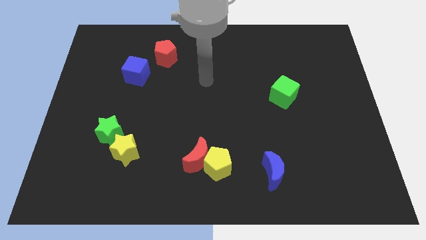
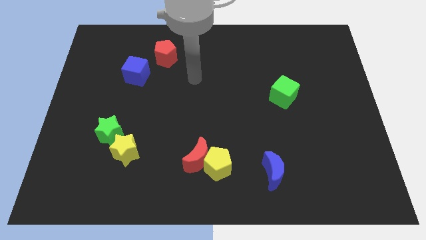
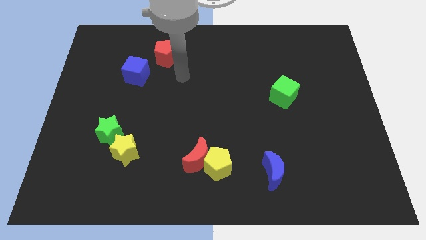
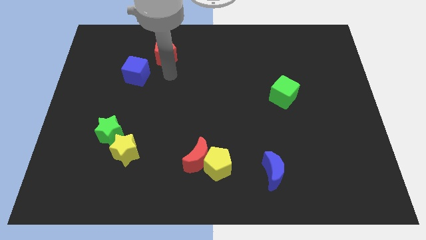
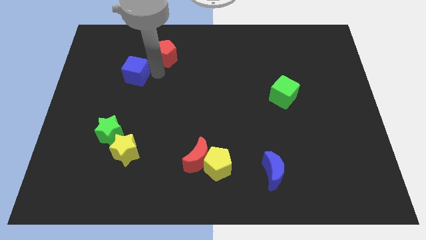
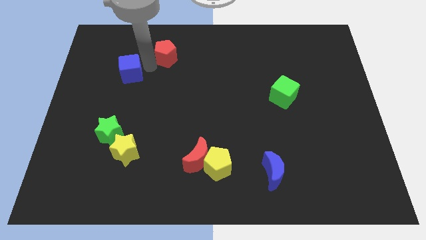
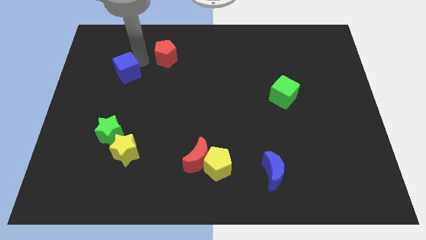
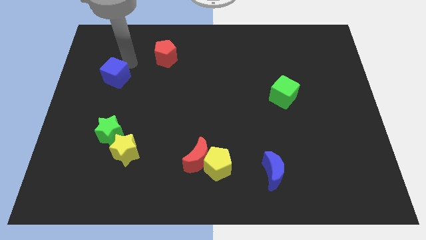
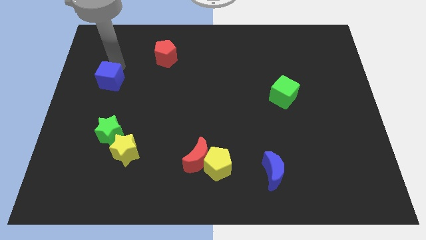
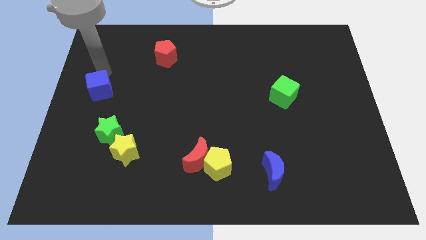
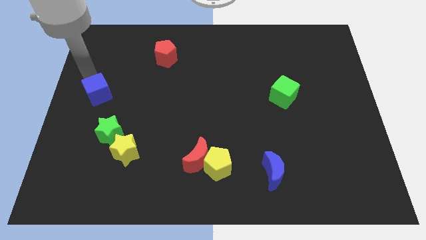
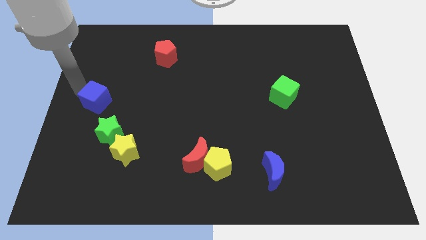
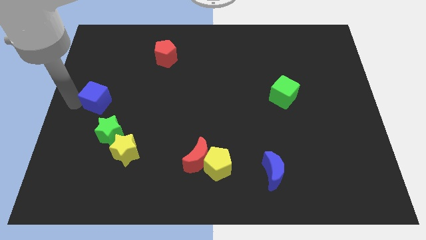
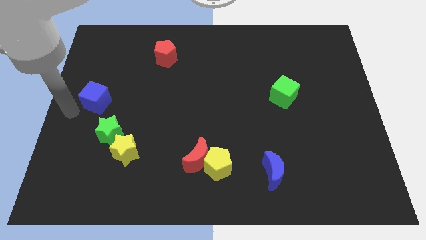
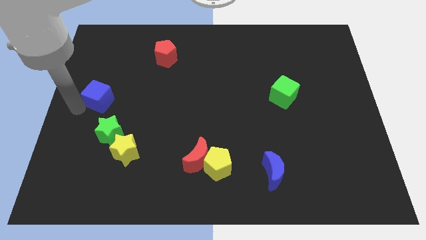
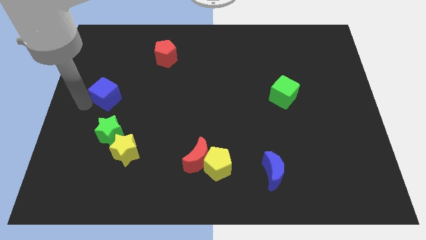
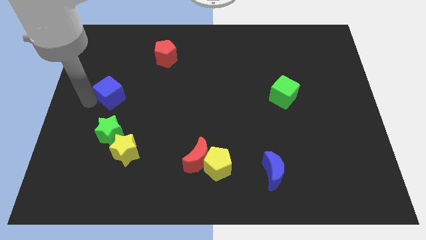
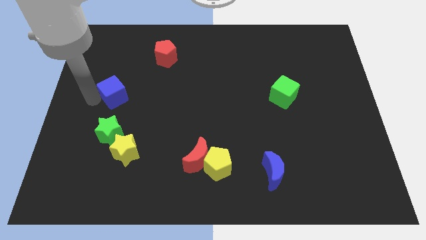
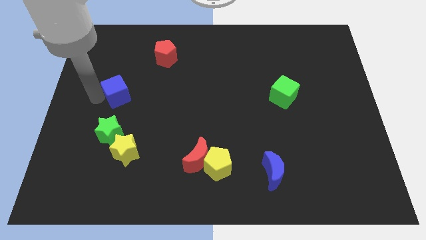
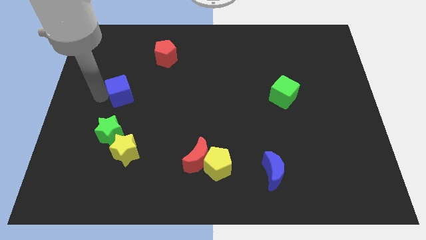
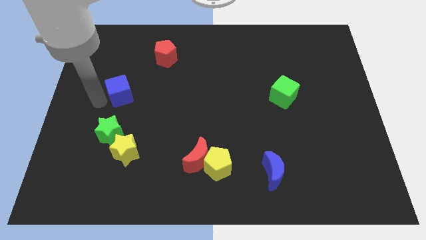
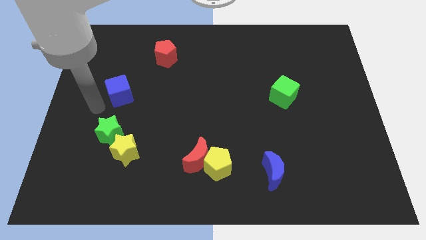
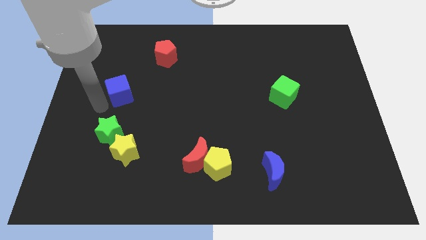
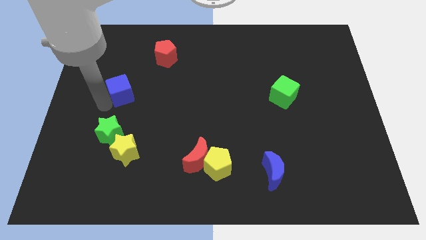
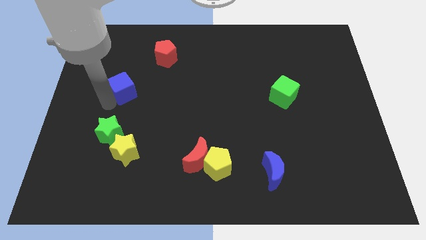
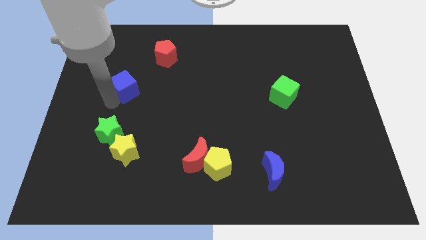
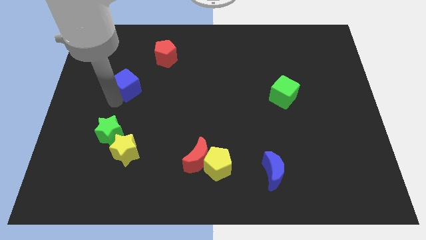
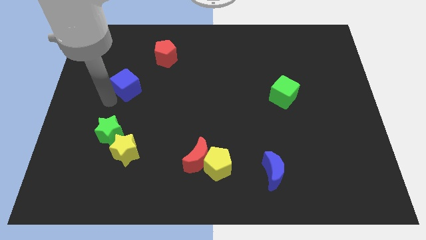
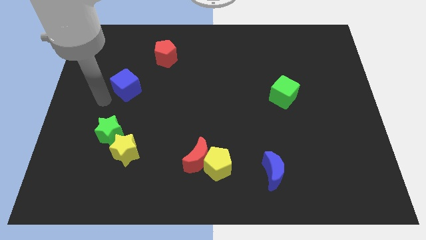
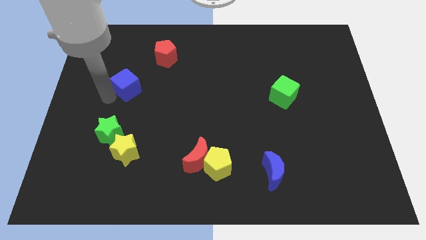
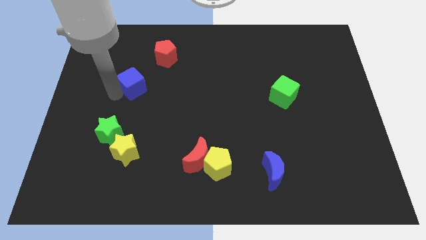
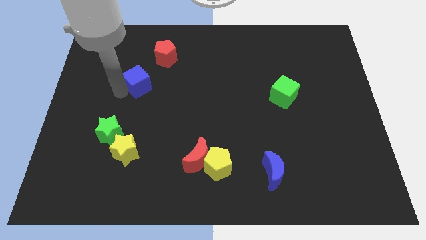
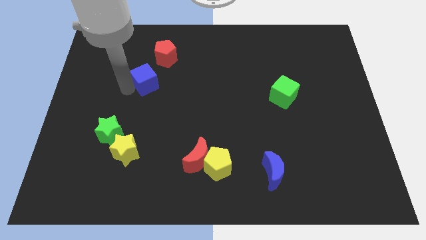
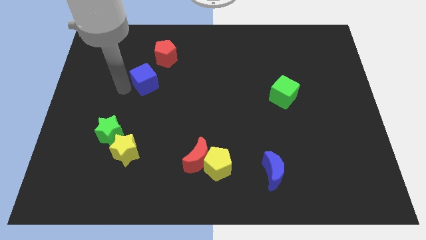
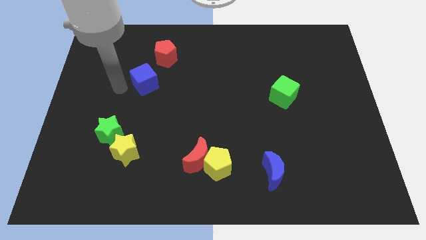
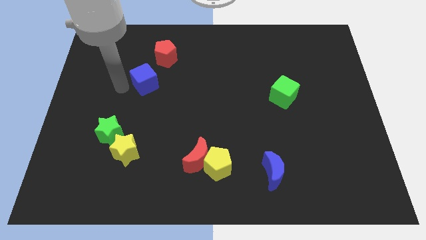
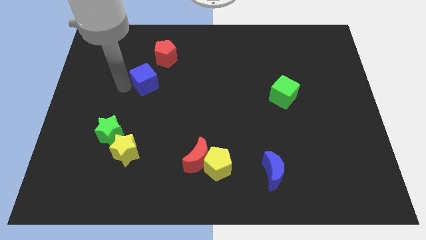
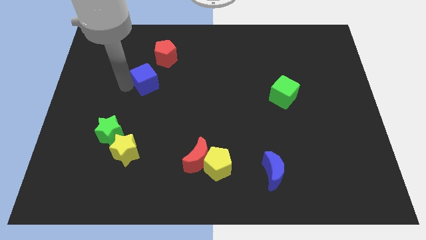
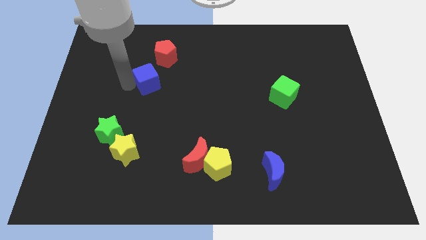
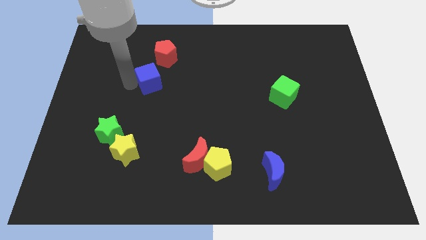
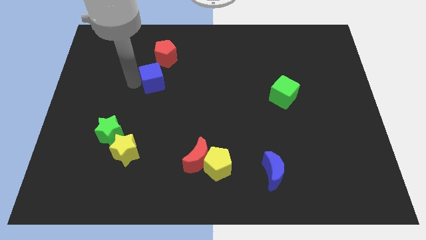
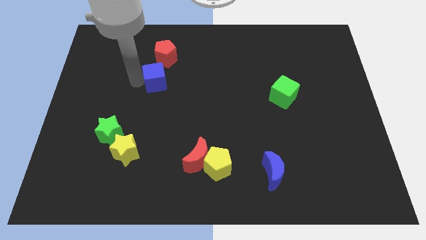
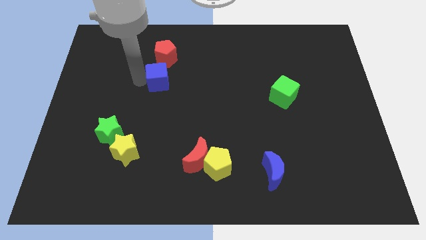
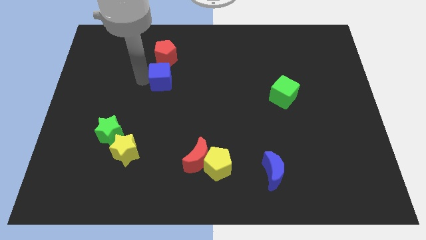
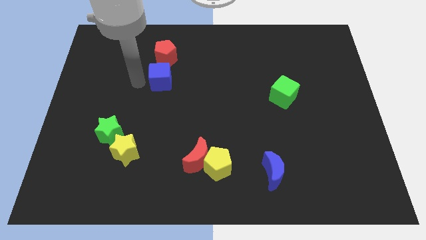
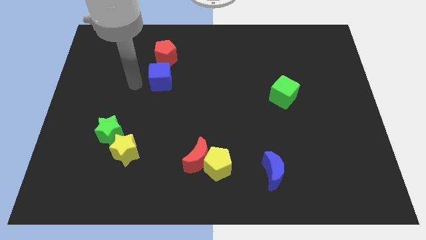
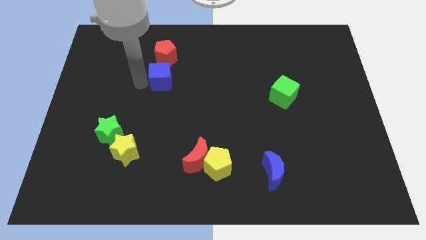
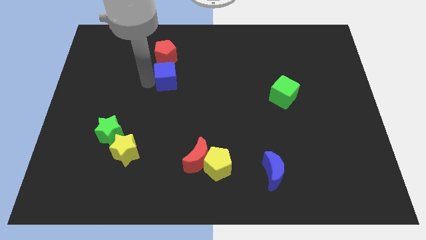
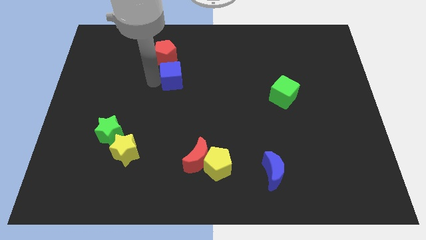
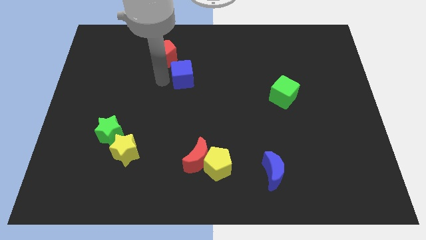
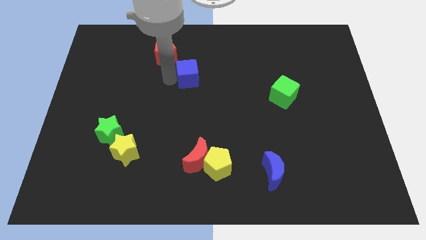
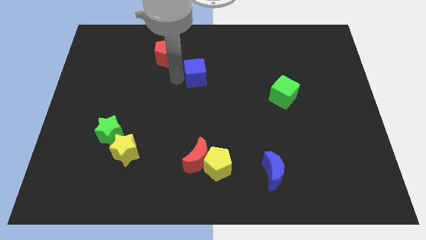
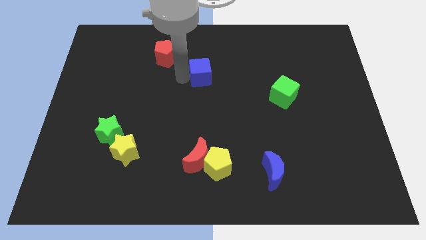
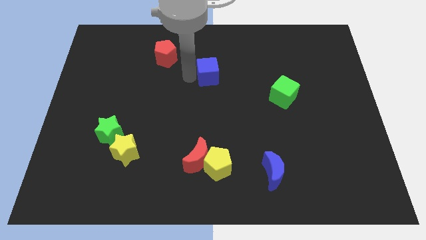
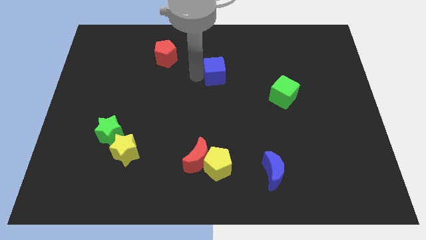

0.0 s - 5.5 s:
move the blue cube to the right

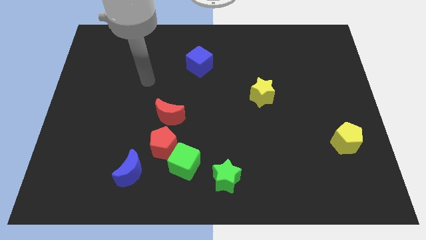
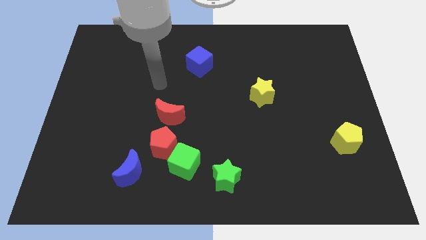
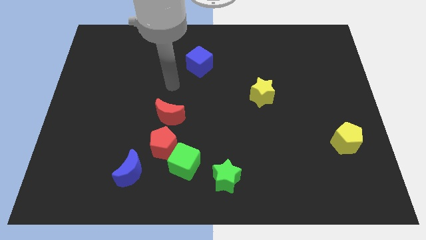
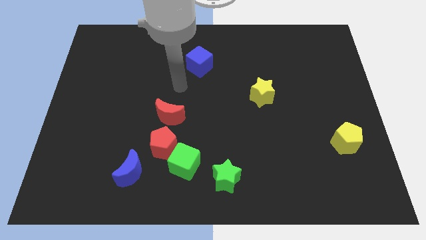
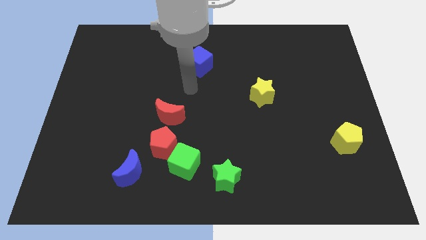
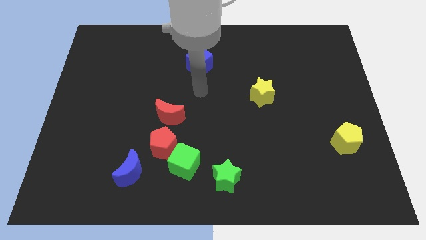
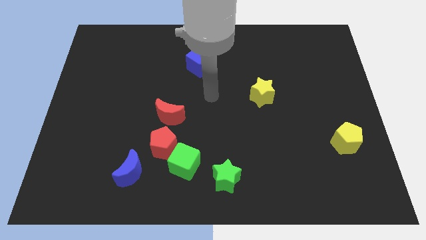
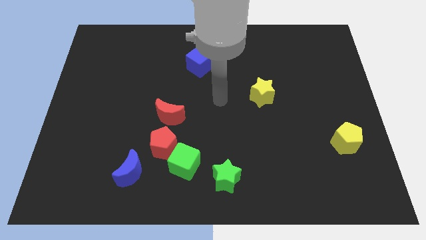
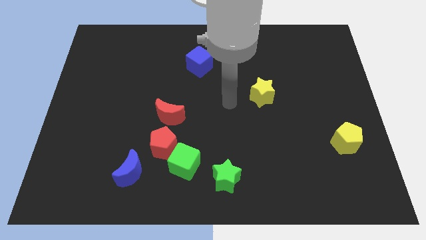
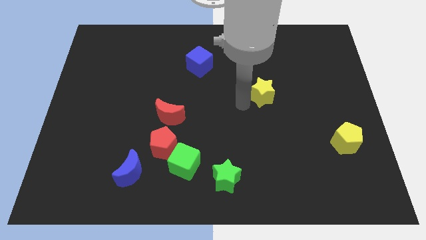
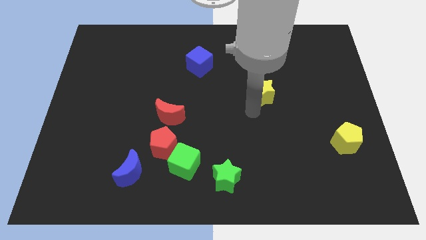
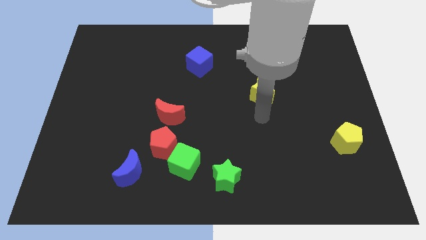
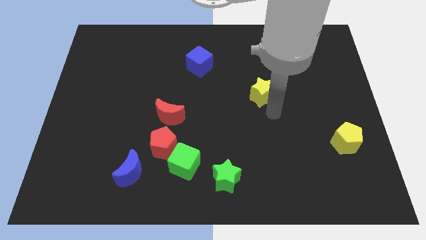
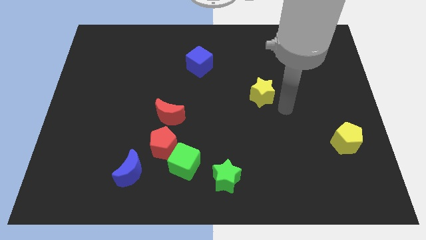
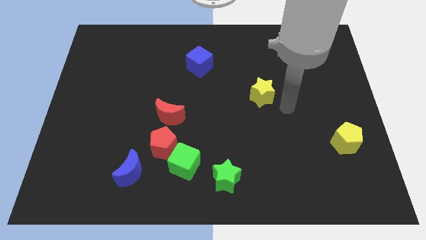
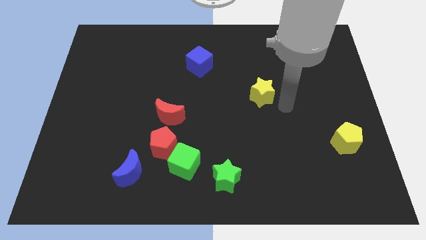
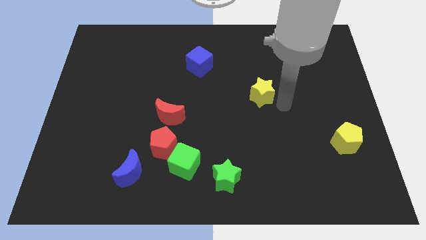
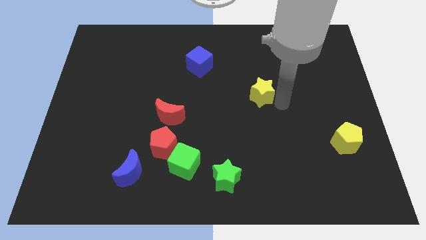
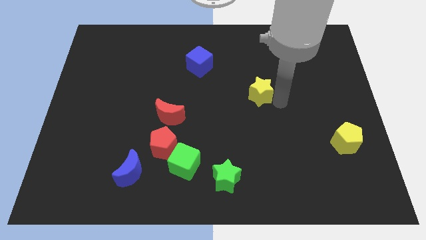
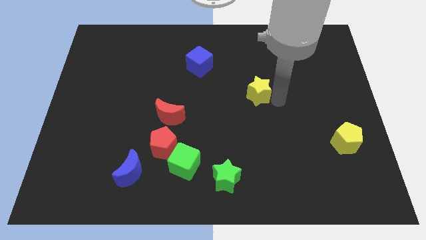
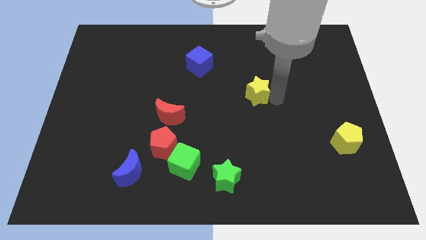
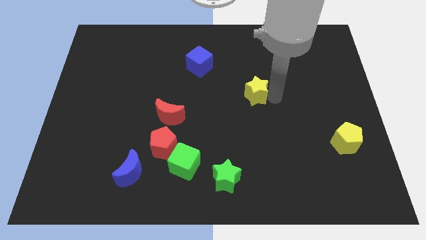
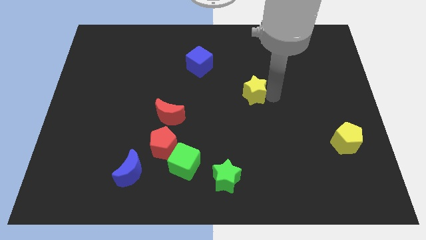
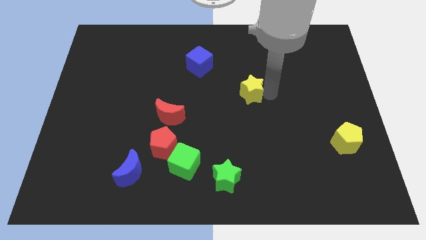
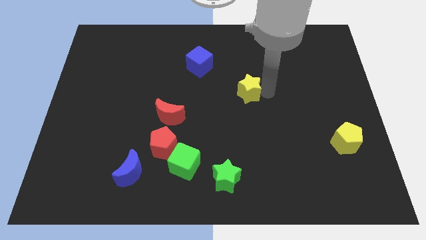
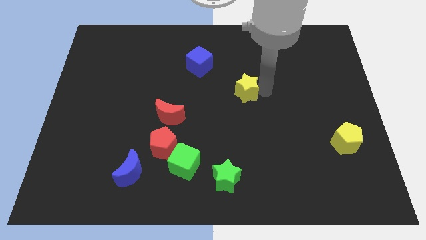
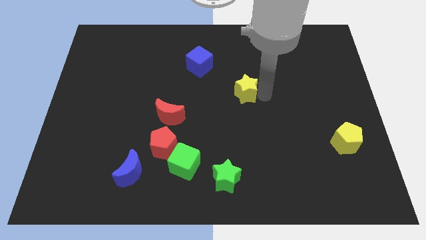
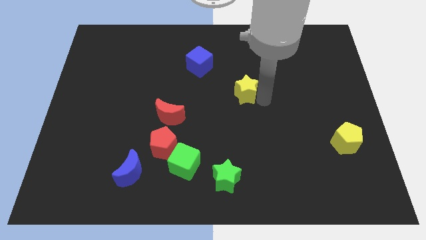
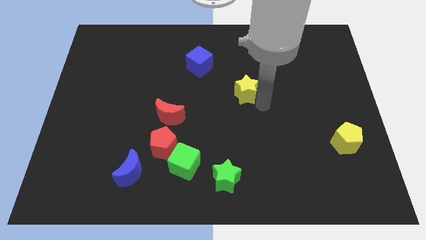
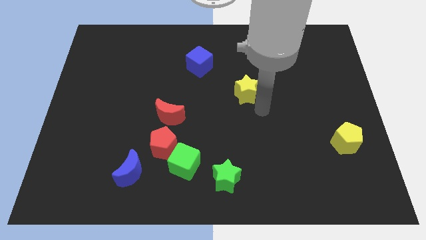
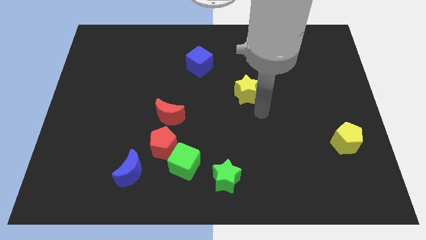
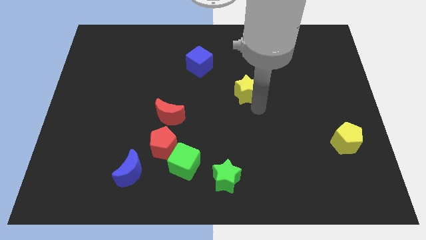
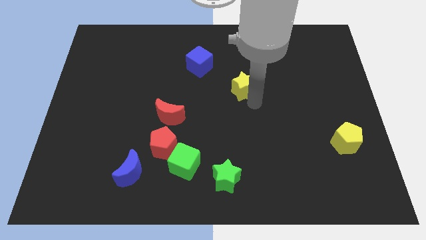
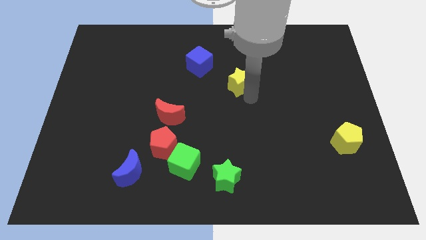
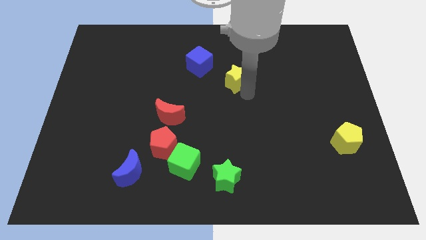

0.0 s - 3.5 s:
slightly slide the yellow star up and left
